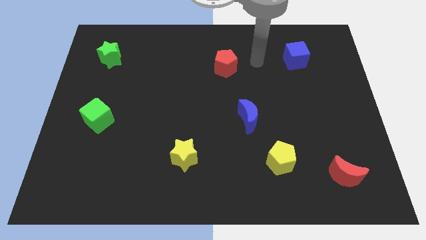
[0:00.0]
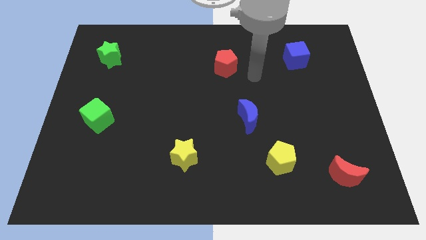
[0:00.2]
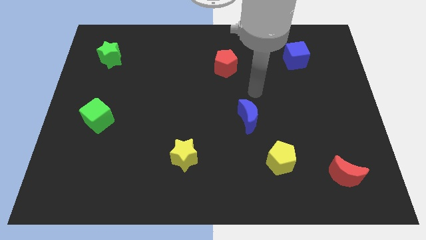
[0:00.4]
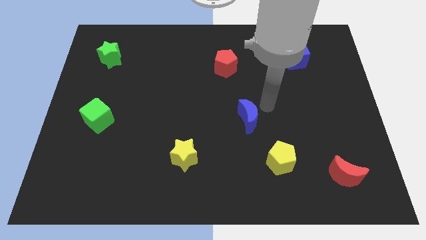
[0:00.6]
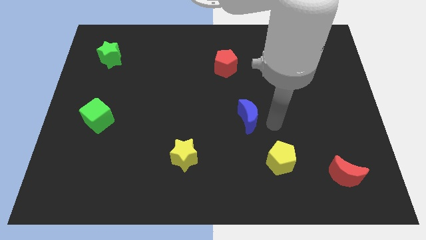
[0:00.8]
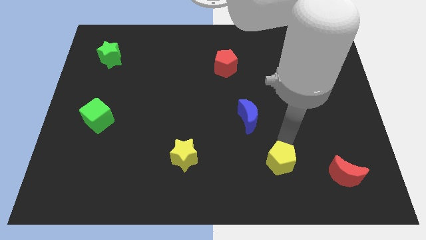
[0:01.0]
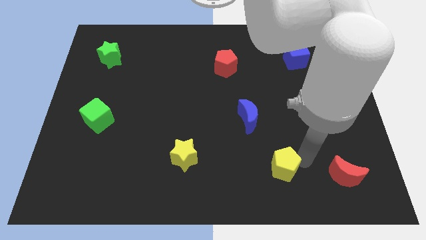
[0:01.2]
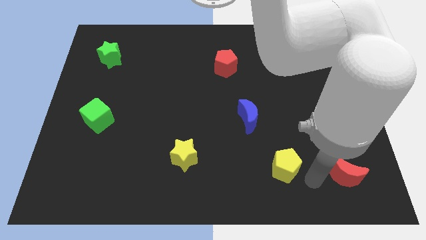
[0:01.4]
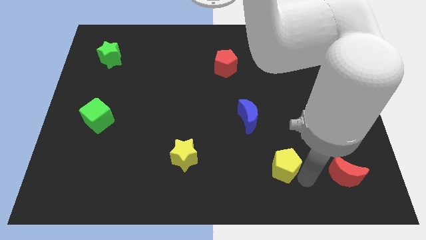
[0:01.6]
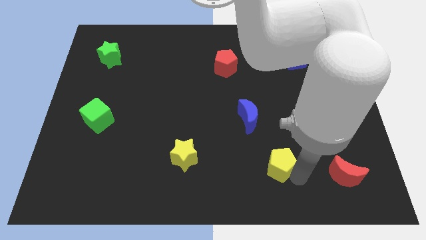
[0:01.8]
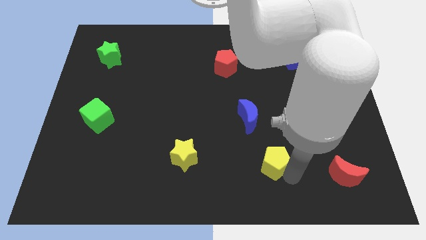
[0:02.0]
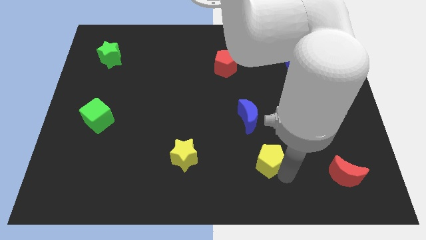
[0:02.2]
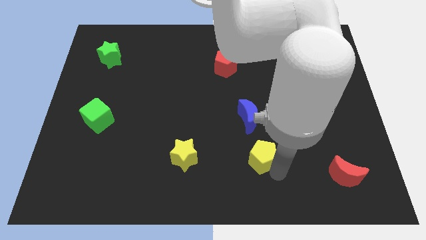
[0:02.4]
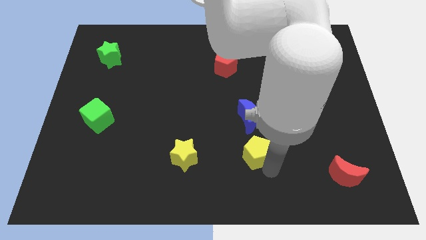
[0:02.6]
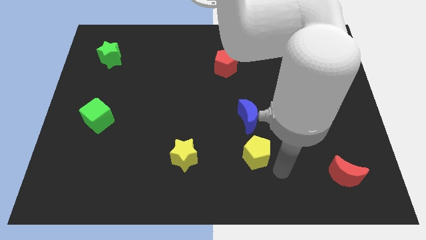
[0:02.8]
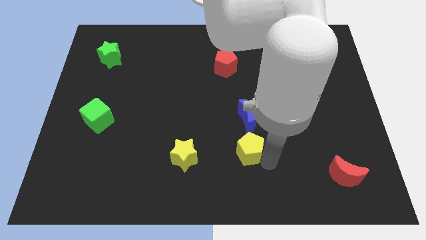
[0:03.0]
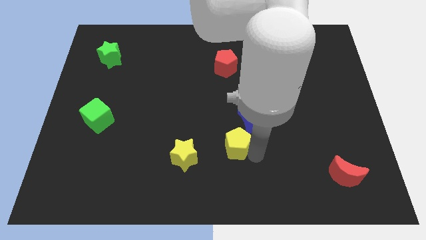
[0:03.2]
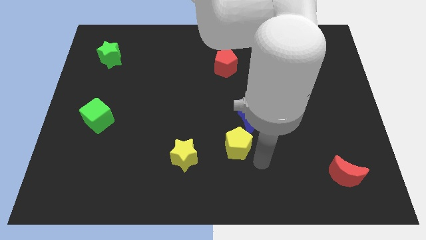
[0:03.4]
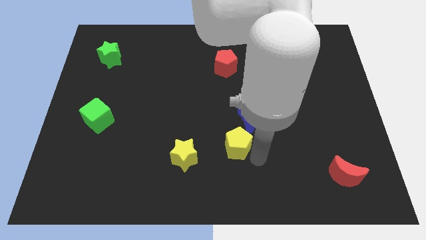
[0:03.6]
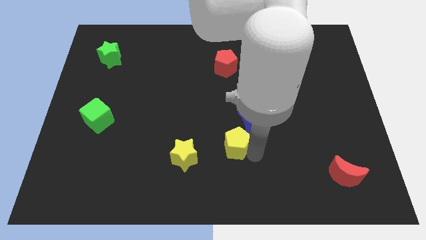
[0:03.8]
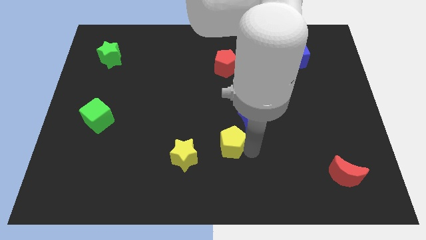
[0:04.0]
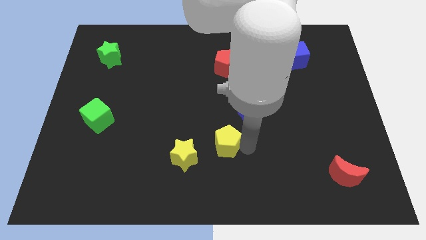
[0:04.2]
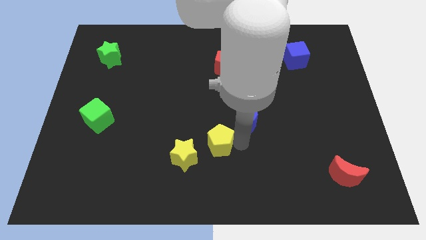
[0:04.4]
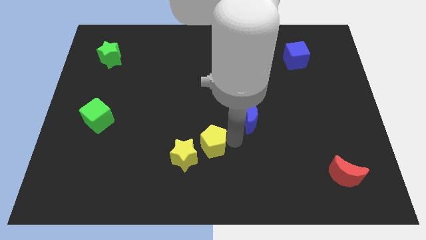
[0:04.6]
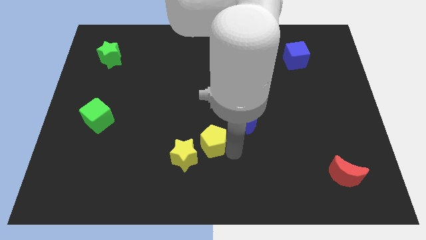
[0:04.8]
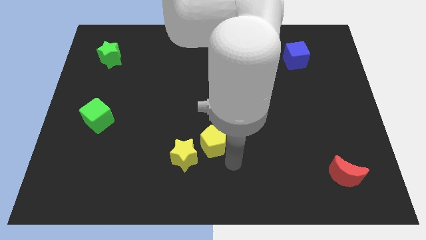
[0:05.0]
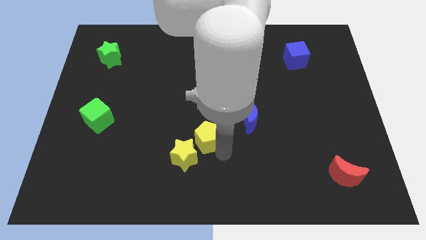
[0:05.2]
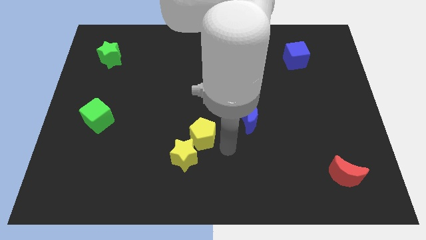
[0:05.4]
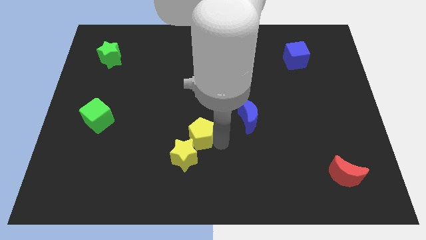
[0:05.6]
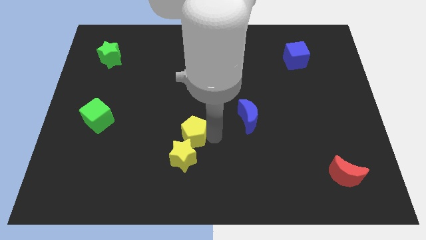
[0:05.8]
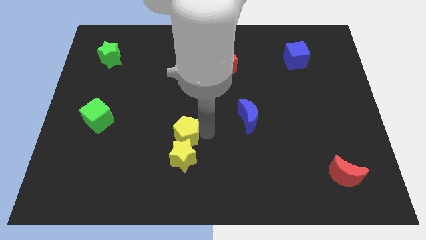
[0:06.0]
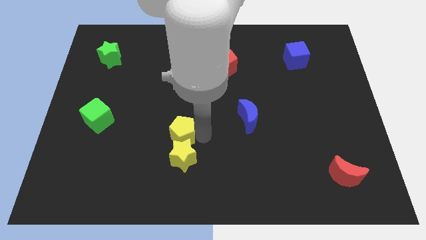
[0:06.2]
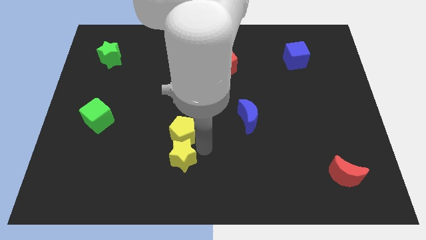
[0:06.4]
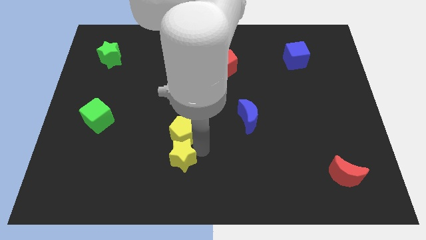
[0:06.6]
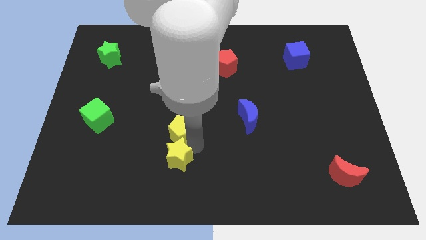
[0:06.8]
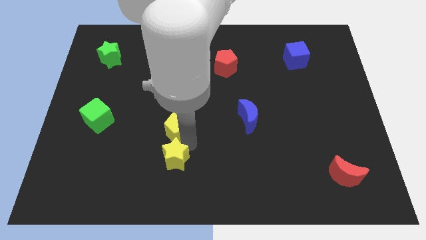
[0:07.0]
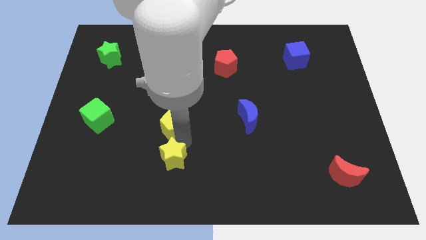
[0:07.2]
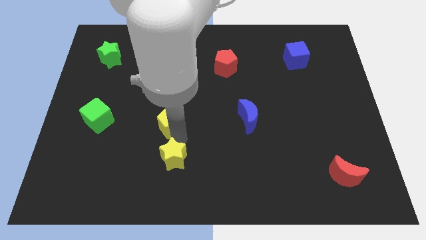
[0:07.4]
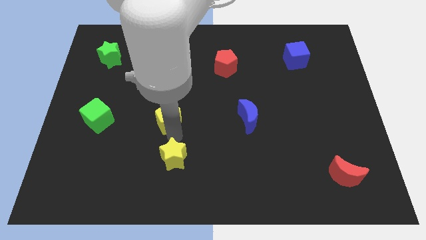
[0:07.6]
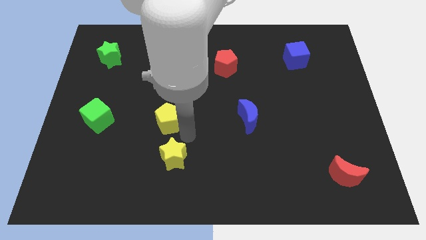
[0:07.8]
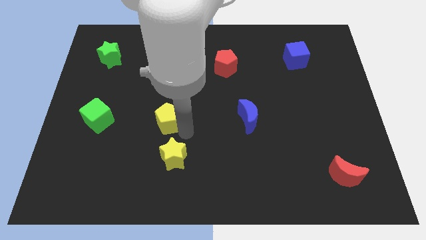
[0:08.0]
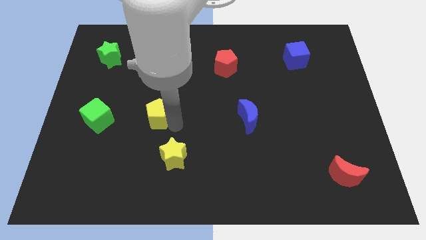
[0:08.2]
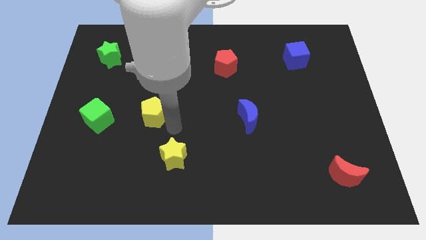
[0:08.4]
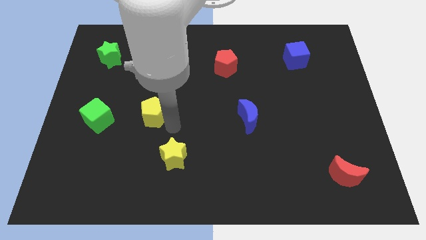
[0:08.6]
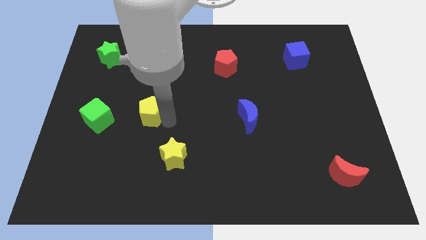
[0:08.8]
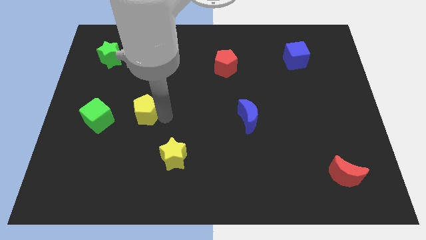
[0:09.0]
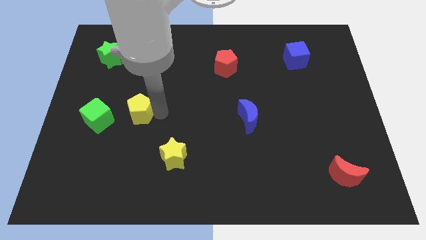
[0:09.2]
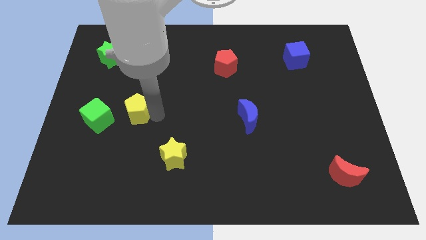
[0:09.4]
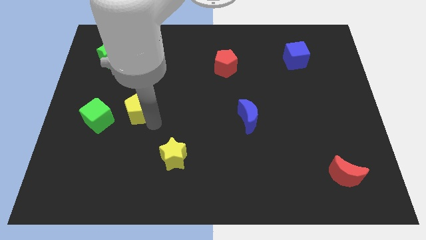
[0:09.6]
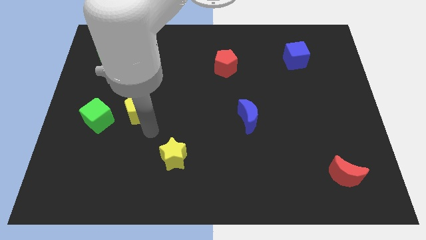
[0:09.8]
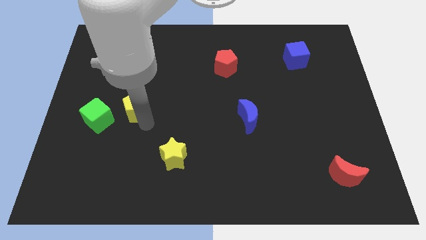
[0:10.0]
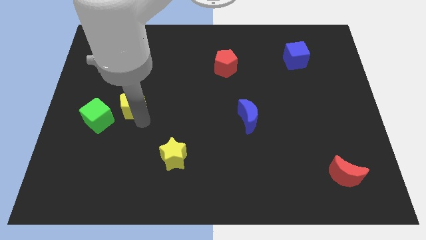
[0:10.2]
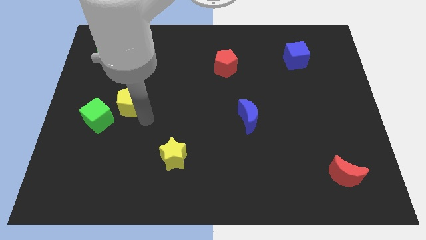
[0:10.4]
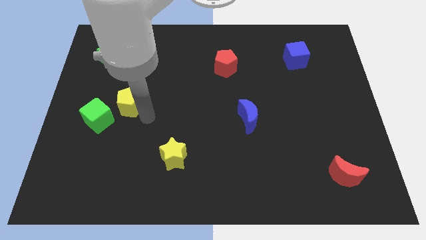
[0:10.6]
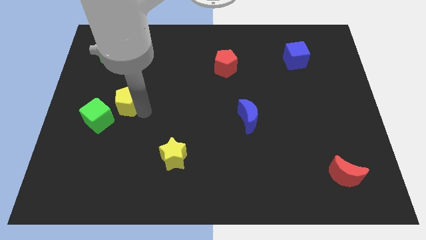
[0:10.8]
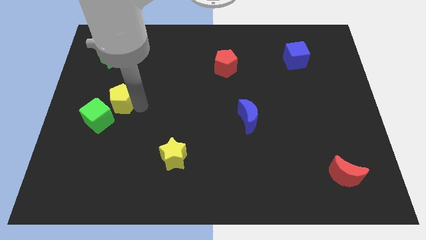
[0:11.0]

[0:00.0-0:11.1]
put the yellow pentagon to the top side of the green cube

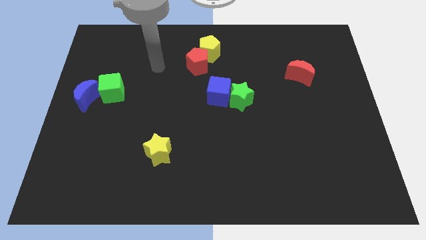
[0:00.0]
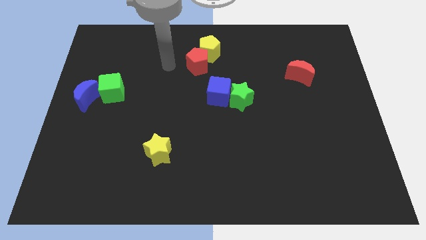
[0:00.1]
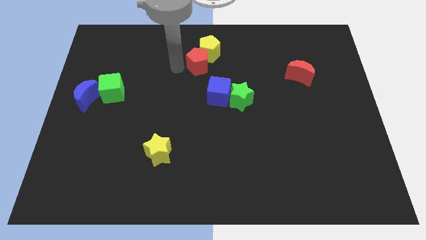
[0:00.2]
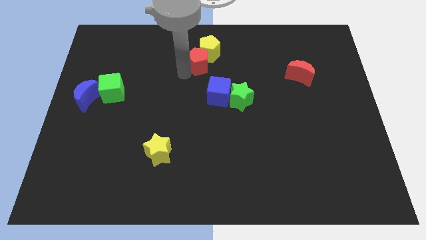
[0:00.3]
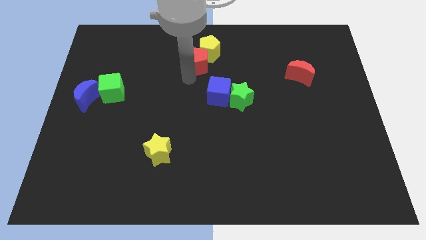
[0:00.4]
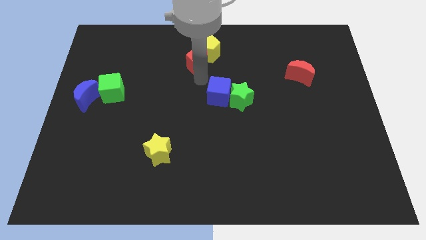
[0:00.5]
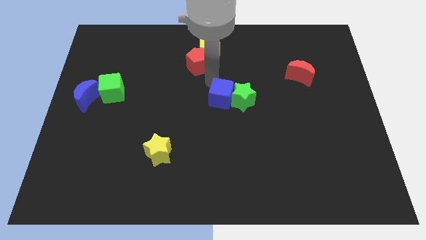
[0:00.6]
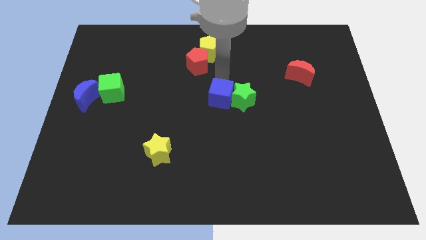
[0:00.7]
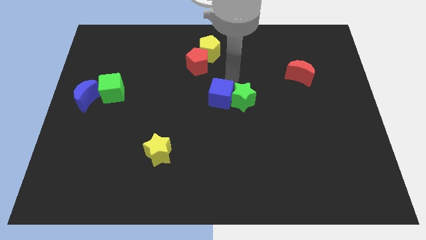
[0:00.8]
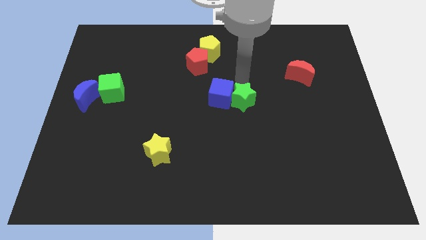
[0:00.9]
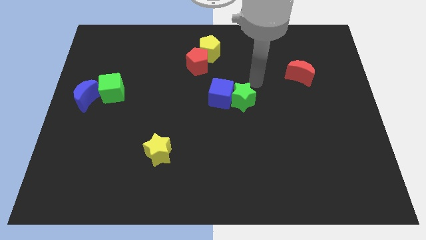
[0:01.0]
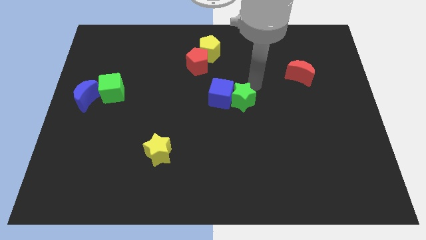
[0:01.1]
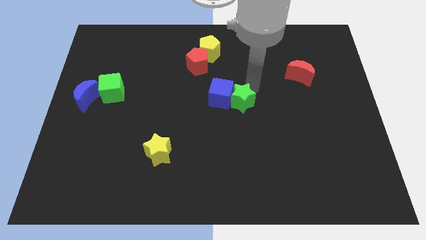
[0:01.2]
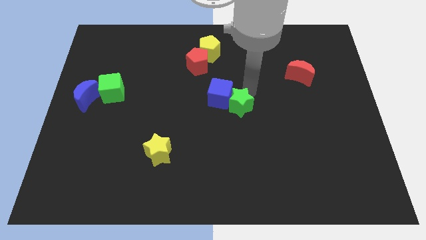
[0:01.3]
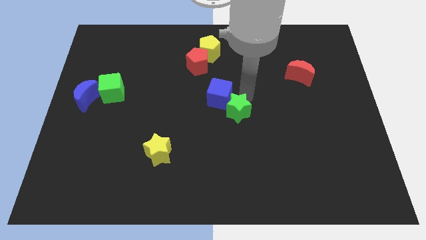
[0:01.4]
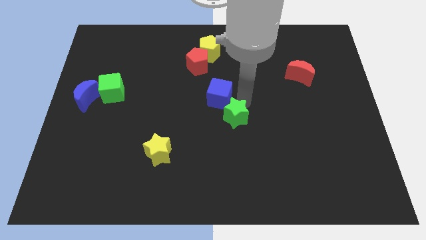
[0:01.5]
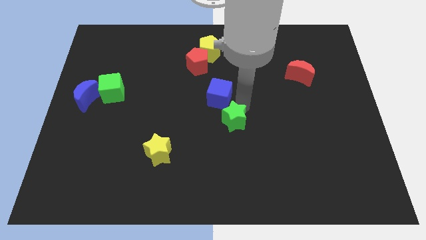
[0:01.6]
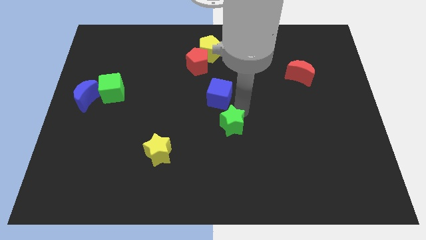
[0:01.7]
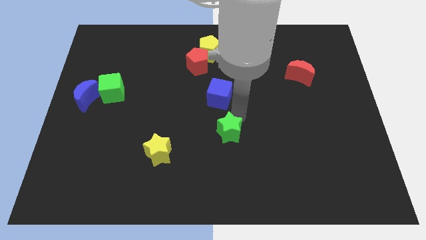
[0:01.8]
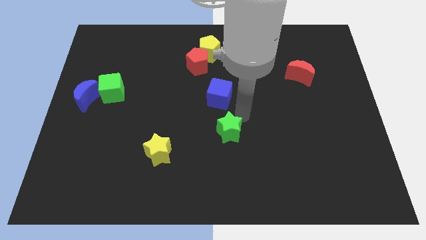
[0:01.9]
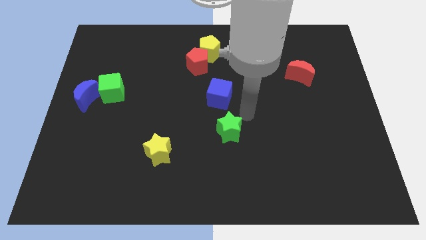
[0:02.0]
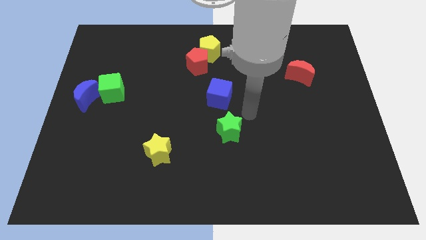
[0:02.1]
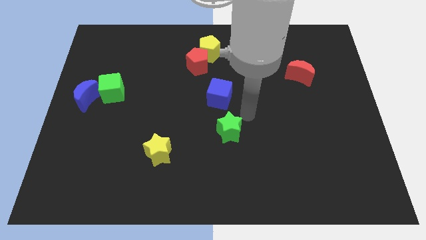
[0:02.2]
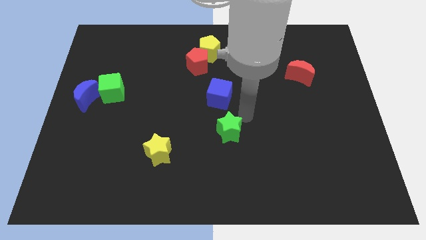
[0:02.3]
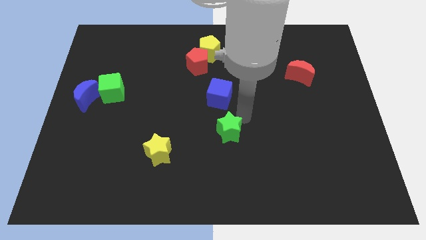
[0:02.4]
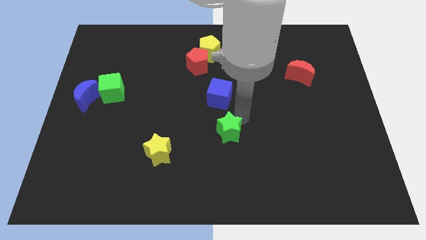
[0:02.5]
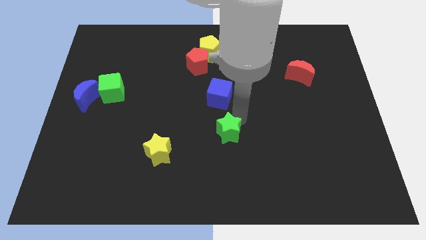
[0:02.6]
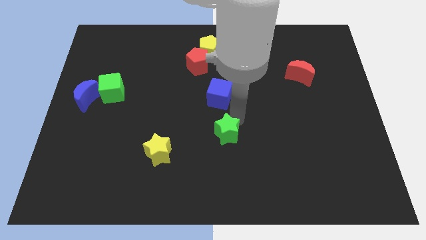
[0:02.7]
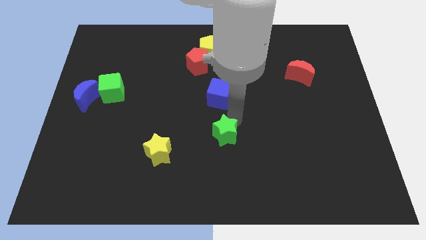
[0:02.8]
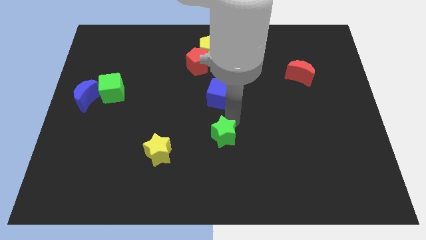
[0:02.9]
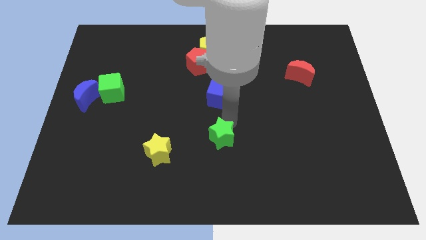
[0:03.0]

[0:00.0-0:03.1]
slide the green star to the right of the yellow star
